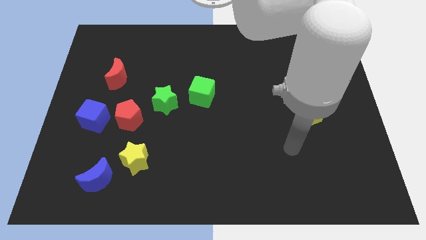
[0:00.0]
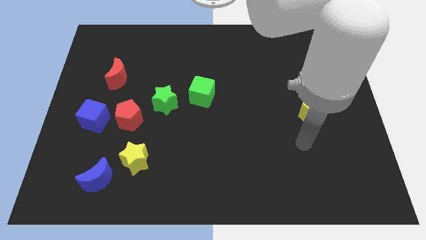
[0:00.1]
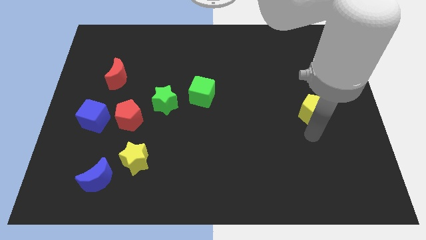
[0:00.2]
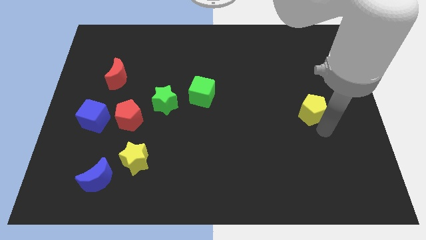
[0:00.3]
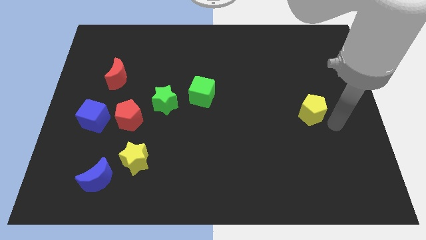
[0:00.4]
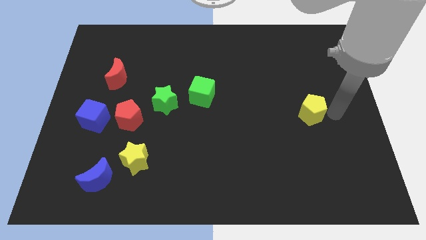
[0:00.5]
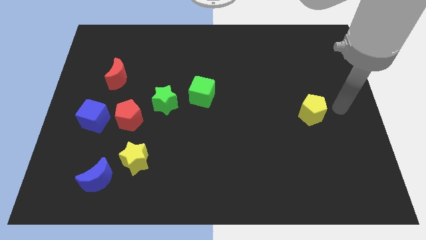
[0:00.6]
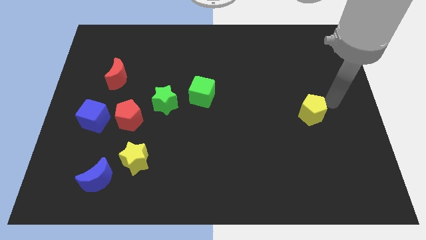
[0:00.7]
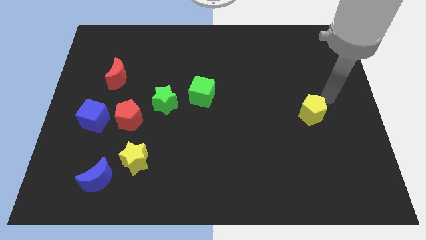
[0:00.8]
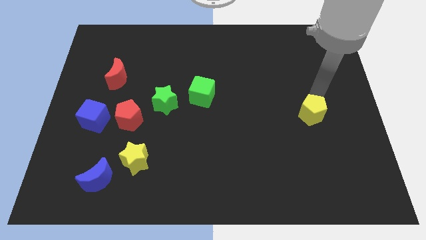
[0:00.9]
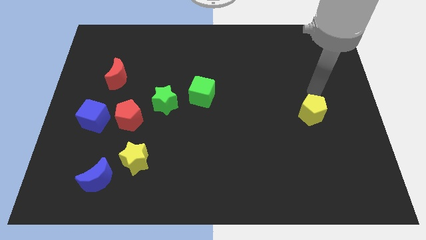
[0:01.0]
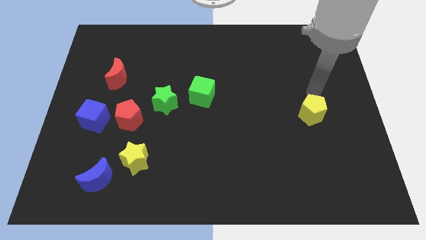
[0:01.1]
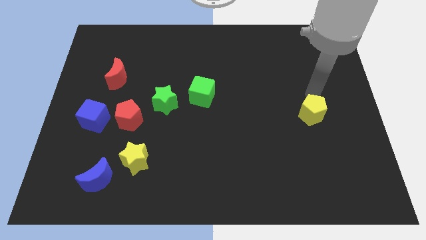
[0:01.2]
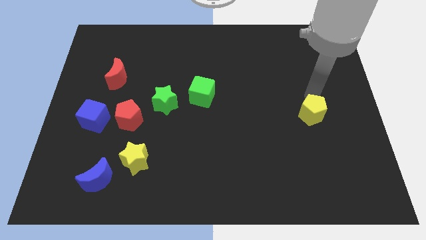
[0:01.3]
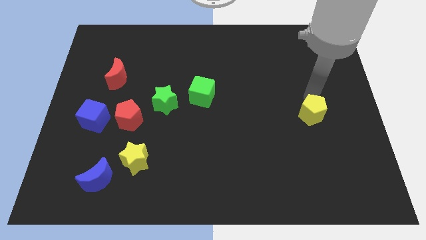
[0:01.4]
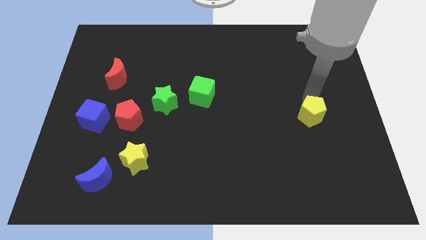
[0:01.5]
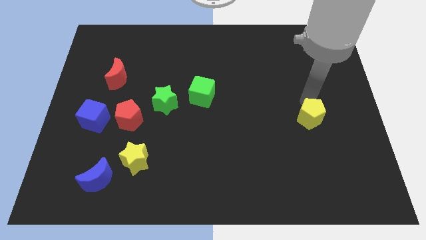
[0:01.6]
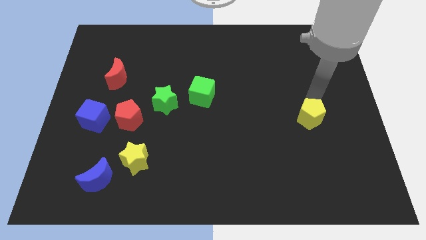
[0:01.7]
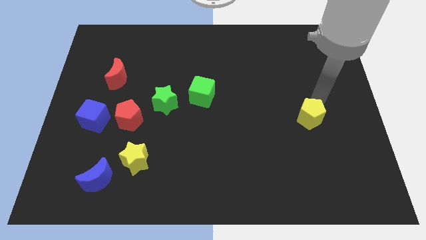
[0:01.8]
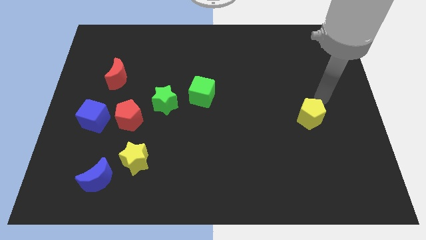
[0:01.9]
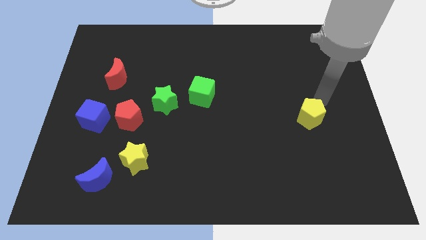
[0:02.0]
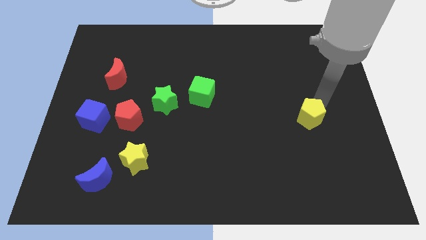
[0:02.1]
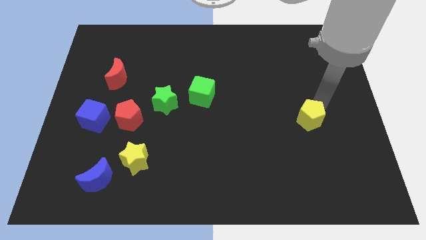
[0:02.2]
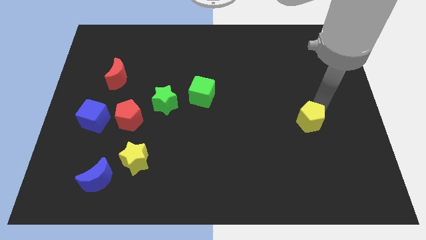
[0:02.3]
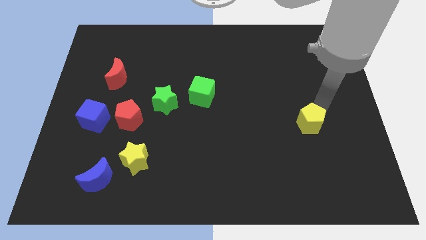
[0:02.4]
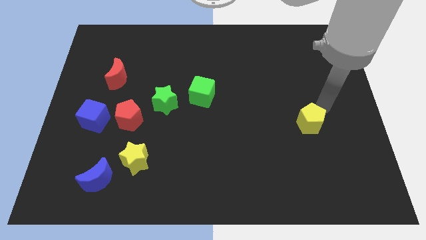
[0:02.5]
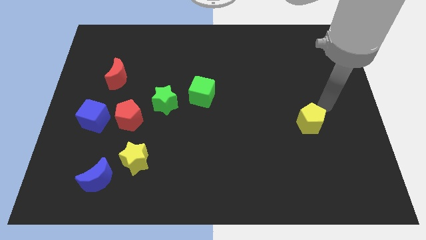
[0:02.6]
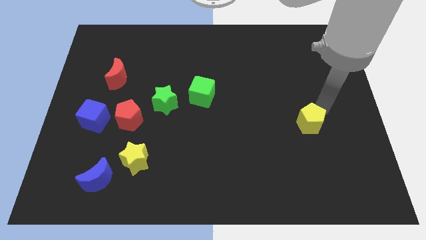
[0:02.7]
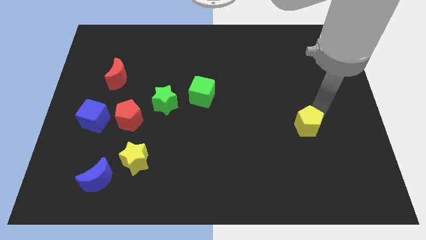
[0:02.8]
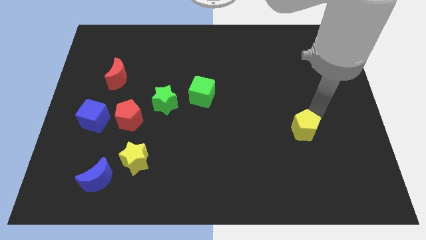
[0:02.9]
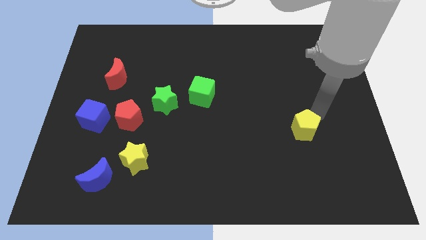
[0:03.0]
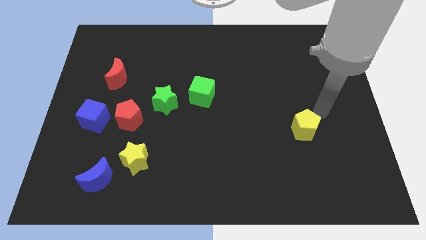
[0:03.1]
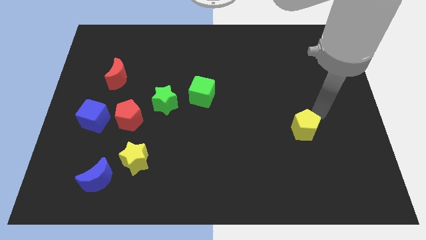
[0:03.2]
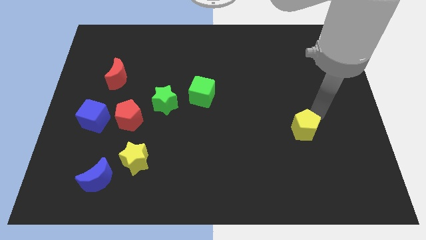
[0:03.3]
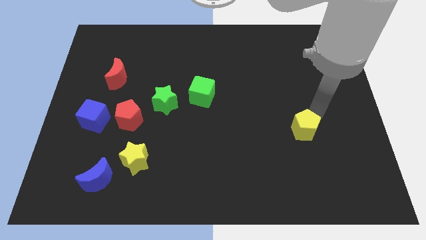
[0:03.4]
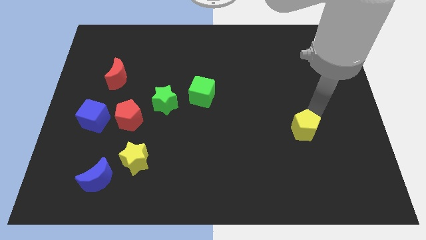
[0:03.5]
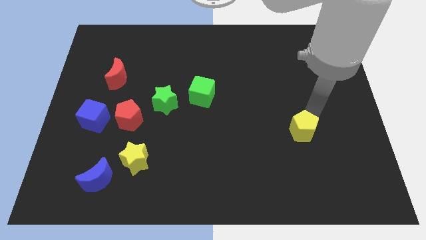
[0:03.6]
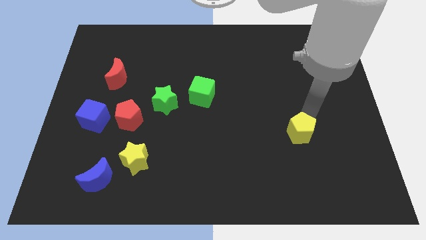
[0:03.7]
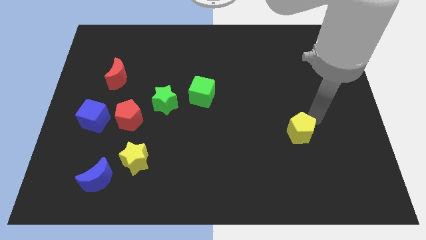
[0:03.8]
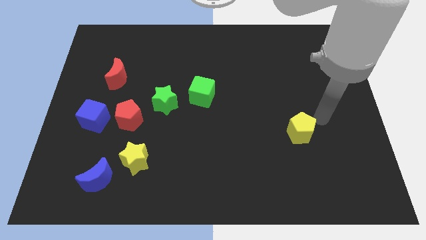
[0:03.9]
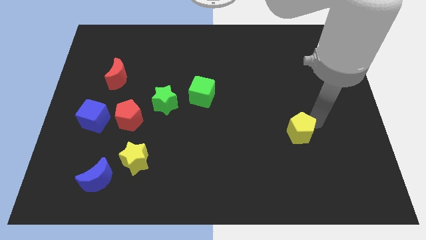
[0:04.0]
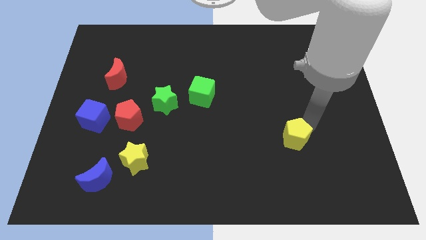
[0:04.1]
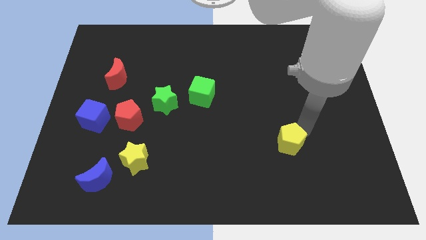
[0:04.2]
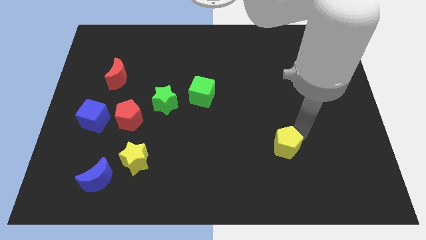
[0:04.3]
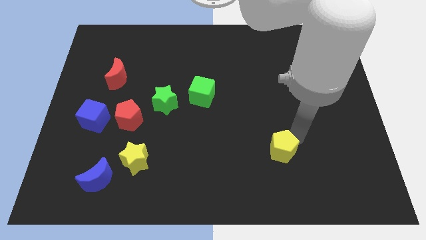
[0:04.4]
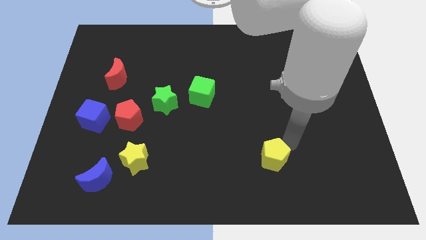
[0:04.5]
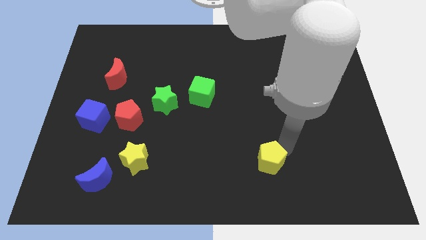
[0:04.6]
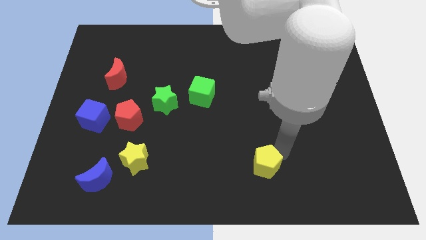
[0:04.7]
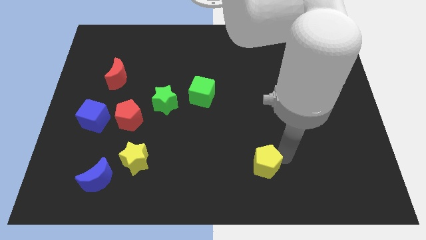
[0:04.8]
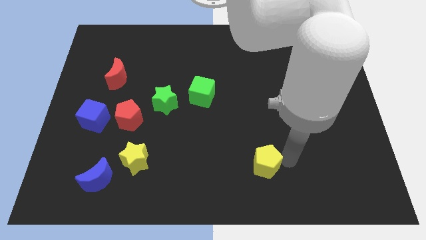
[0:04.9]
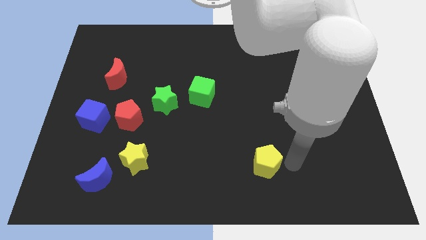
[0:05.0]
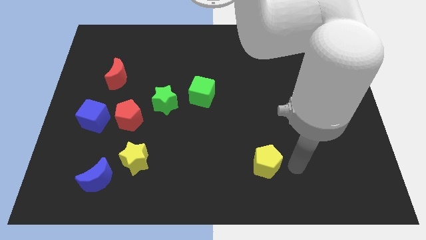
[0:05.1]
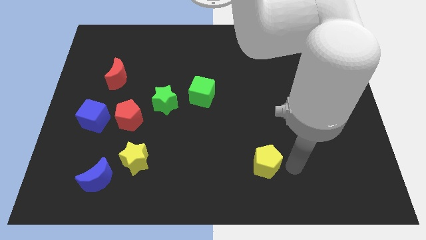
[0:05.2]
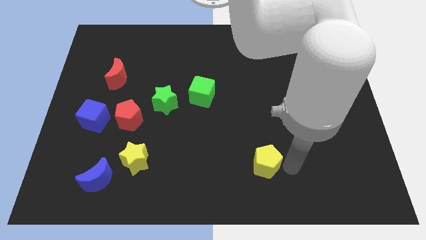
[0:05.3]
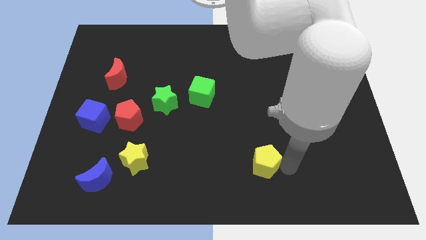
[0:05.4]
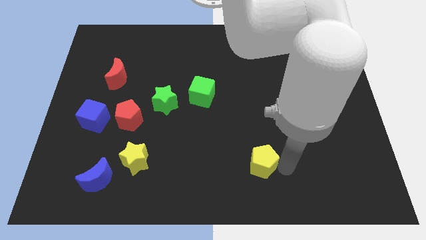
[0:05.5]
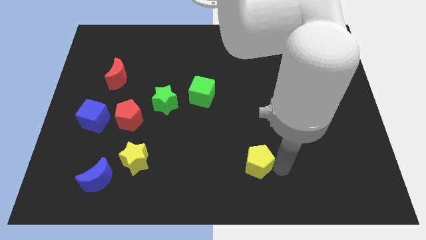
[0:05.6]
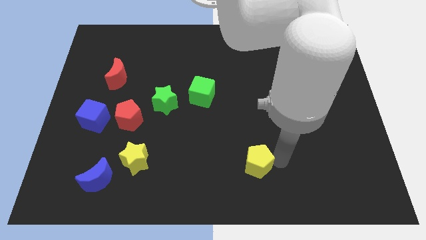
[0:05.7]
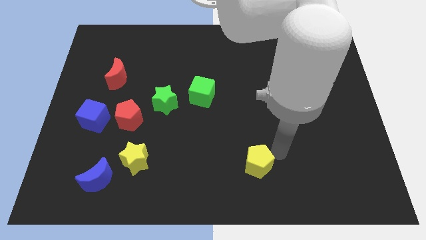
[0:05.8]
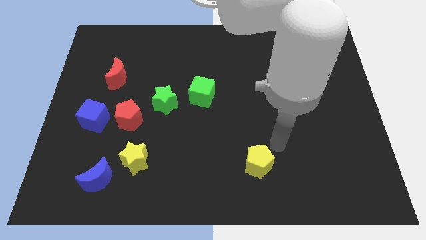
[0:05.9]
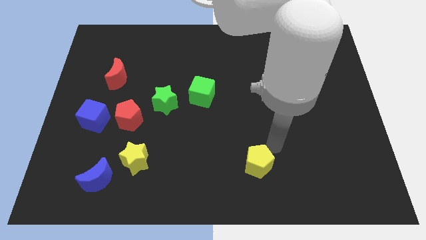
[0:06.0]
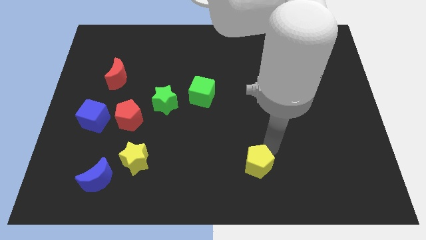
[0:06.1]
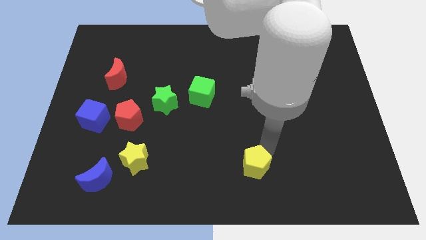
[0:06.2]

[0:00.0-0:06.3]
move the yellow pentagon to the bottom side
